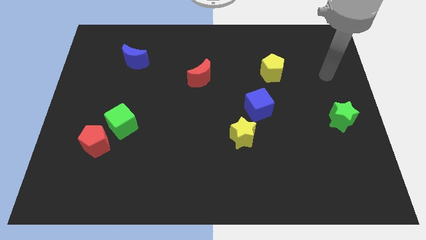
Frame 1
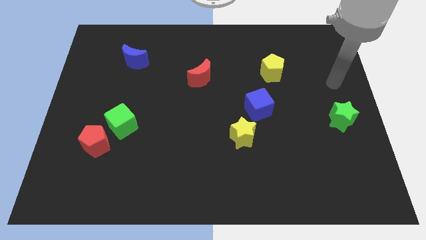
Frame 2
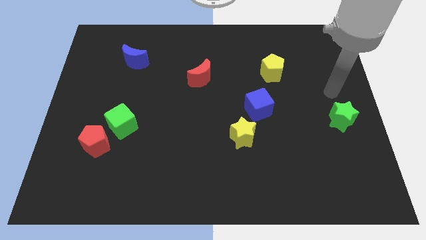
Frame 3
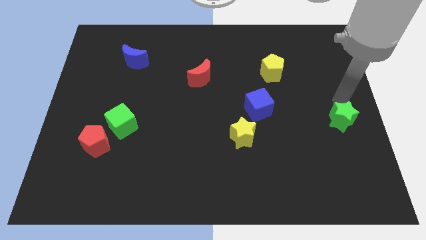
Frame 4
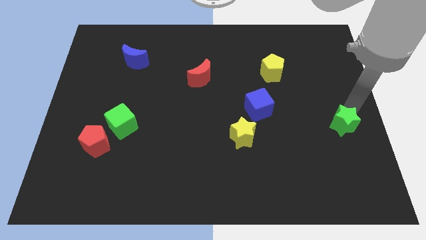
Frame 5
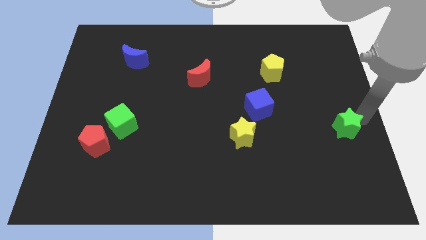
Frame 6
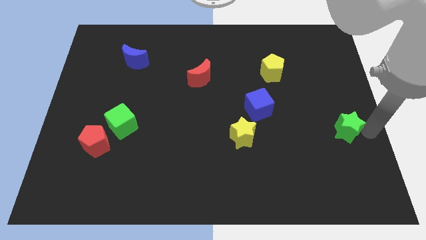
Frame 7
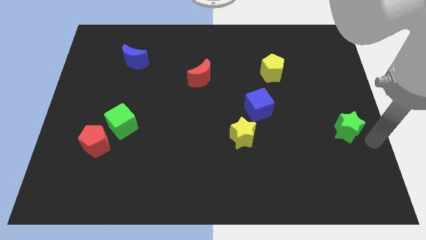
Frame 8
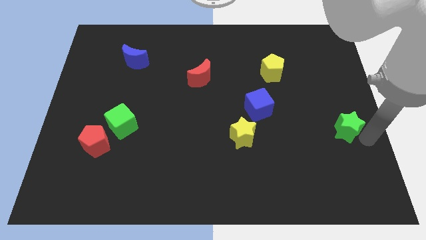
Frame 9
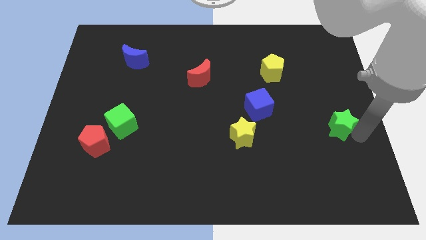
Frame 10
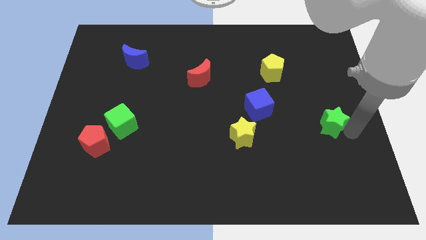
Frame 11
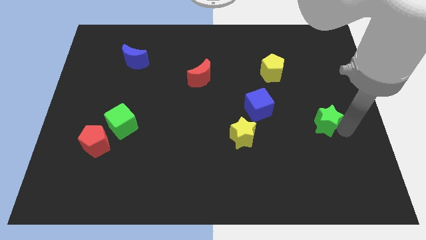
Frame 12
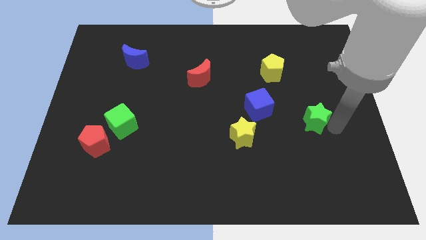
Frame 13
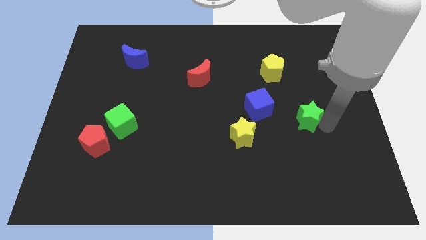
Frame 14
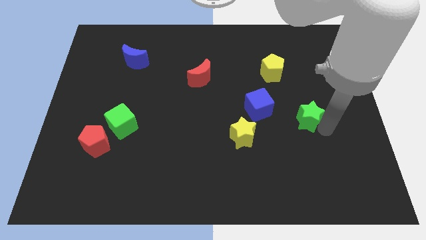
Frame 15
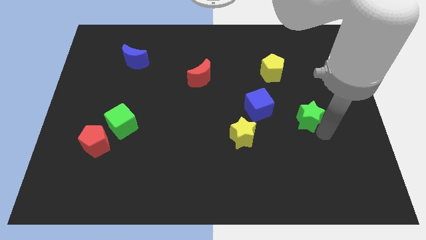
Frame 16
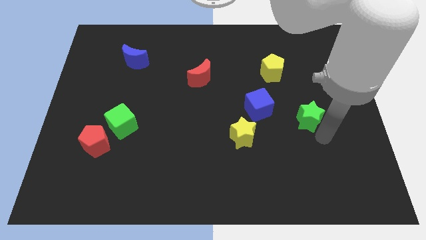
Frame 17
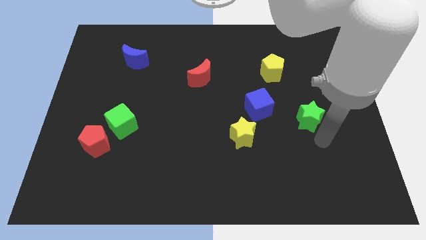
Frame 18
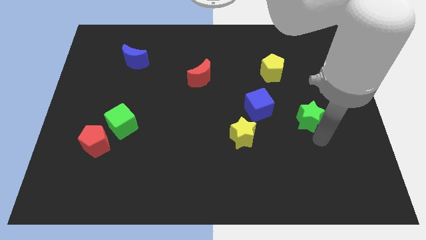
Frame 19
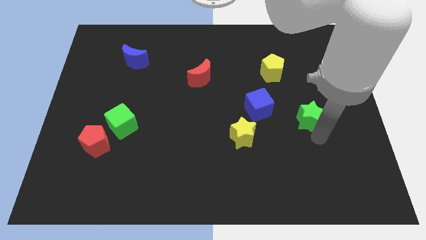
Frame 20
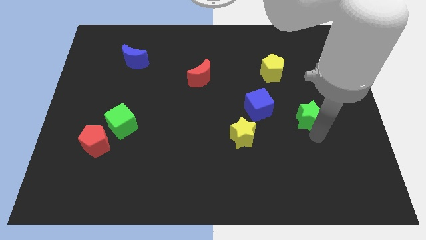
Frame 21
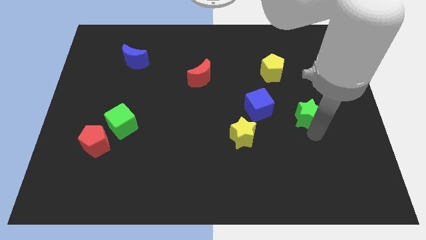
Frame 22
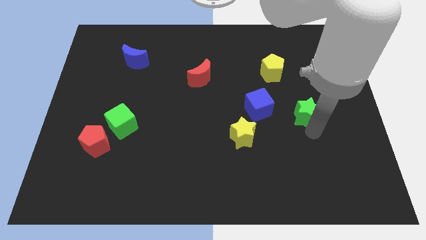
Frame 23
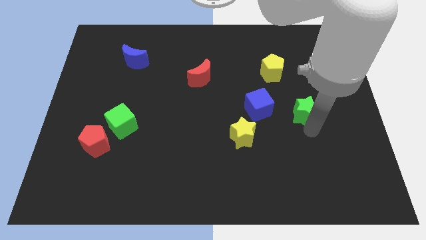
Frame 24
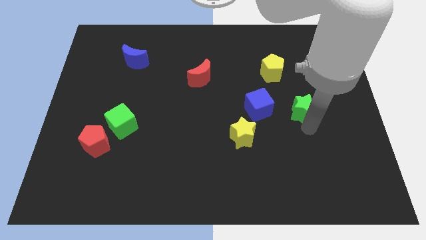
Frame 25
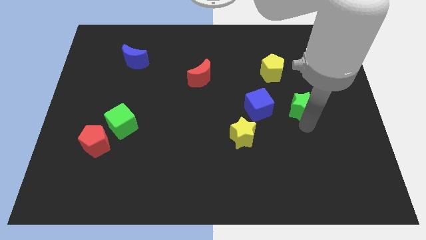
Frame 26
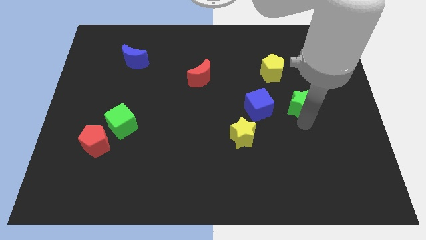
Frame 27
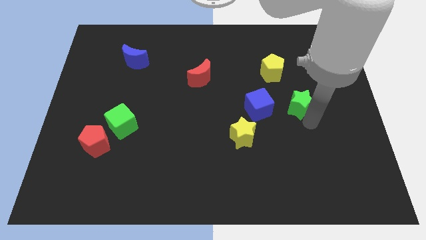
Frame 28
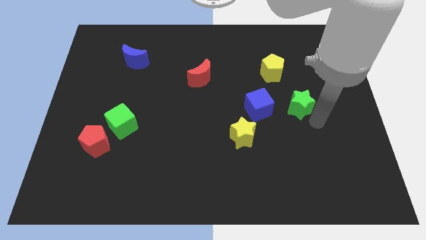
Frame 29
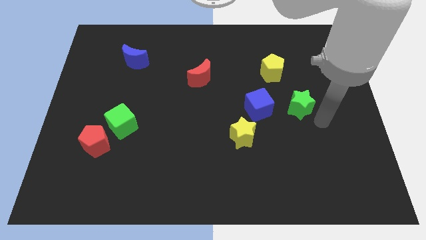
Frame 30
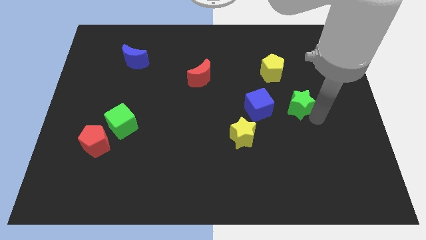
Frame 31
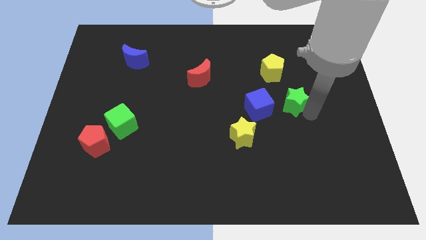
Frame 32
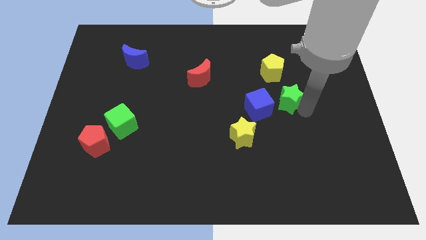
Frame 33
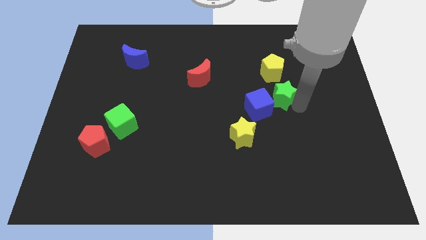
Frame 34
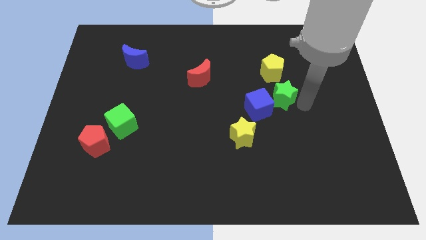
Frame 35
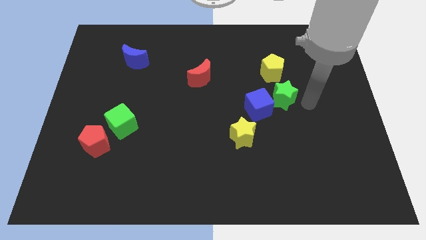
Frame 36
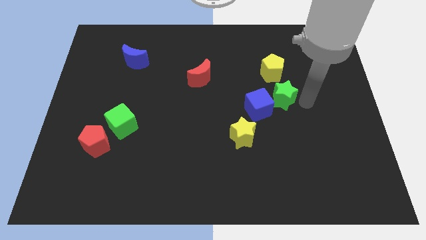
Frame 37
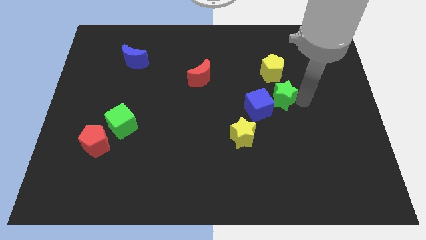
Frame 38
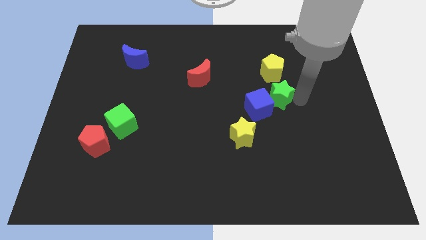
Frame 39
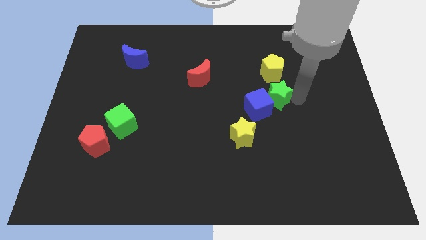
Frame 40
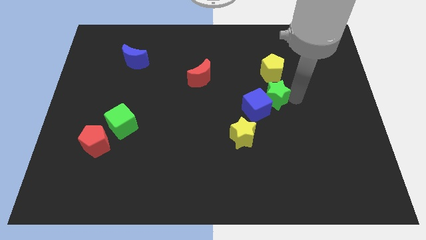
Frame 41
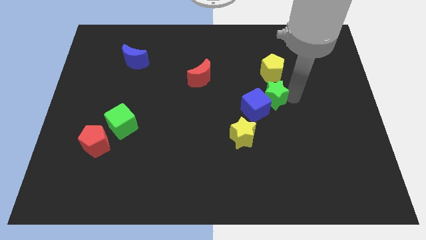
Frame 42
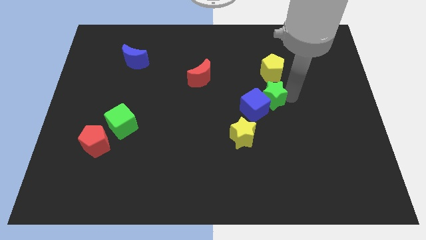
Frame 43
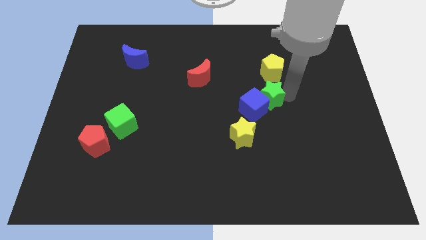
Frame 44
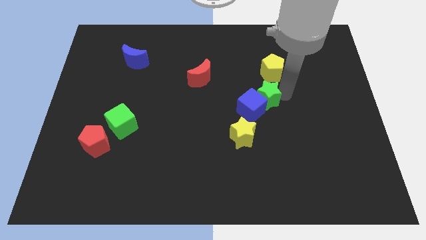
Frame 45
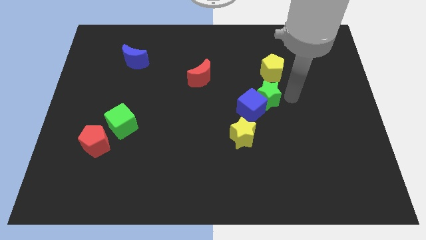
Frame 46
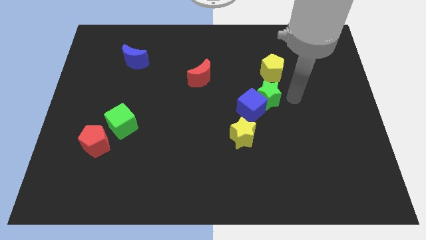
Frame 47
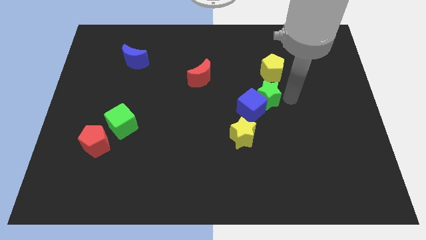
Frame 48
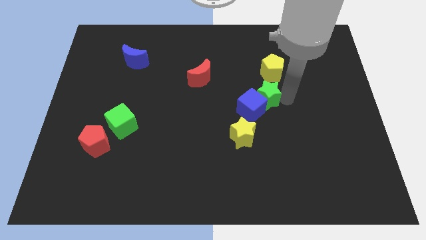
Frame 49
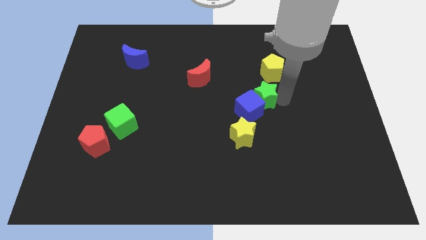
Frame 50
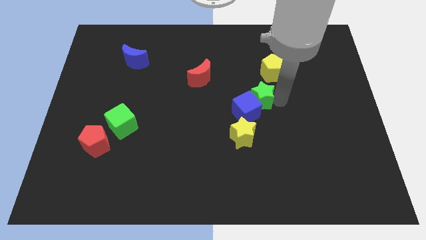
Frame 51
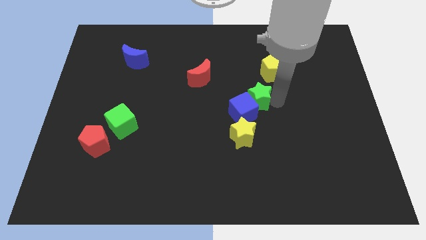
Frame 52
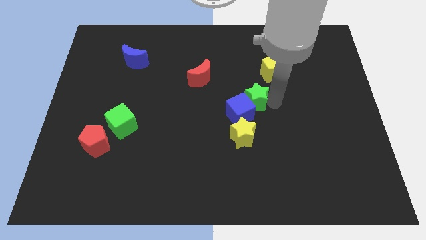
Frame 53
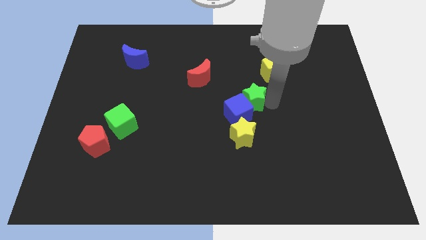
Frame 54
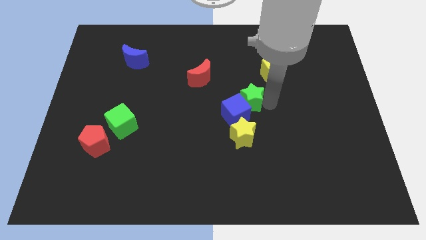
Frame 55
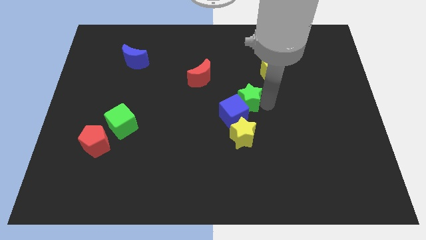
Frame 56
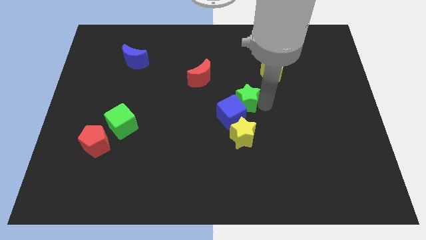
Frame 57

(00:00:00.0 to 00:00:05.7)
move the green star left

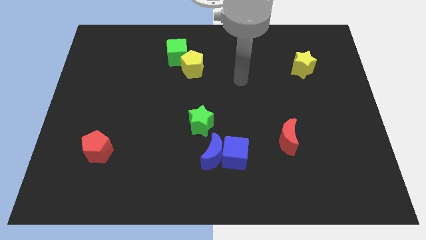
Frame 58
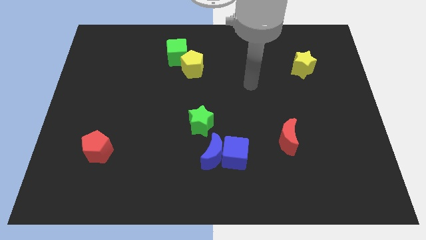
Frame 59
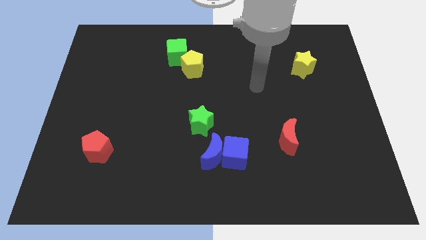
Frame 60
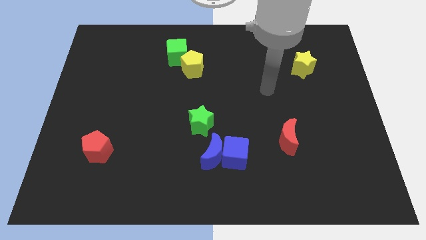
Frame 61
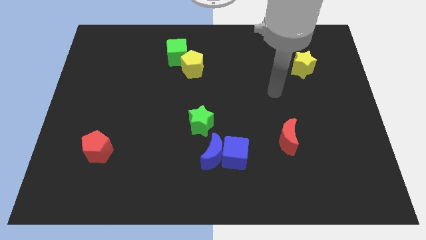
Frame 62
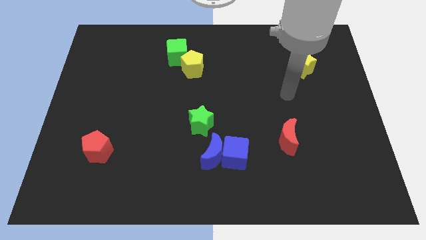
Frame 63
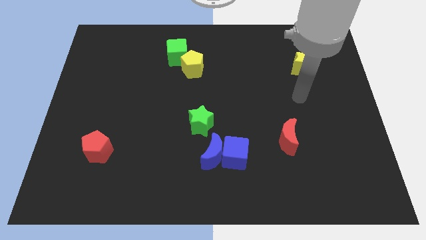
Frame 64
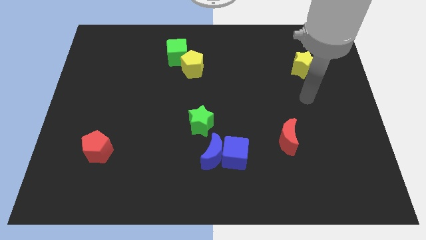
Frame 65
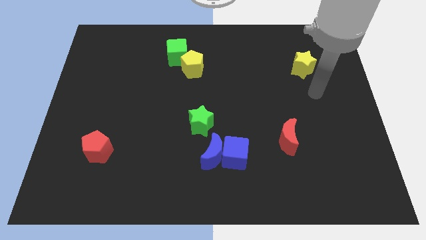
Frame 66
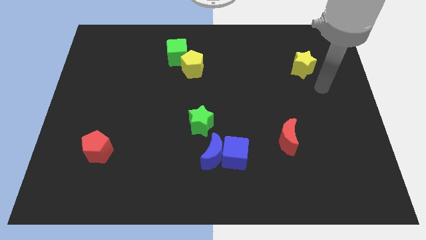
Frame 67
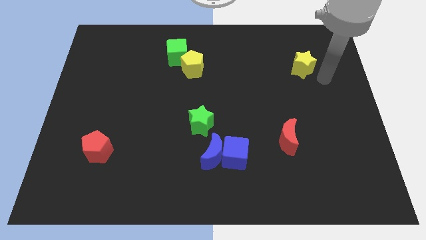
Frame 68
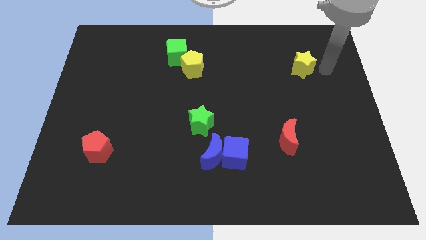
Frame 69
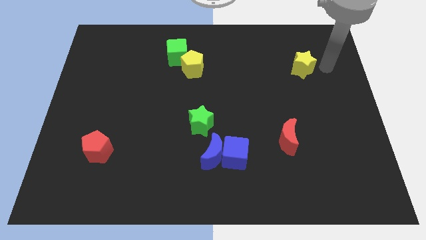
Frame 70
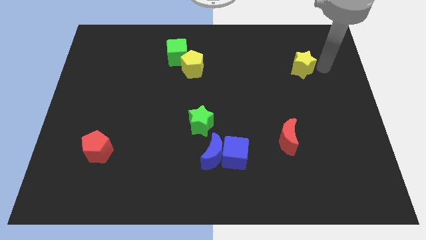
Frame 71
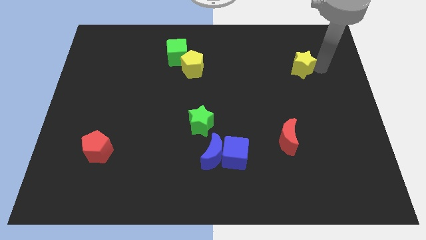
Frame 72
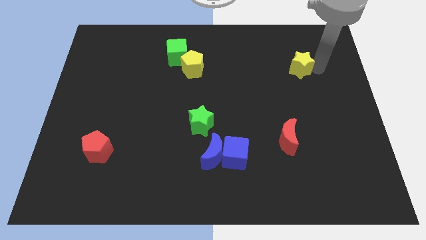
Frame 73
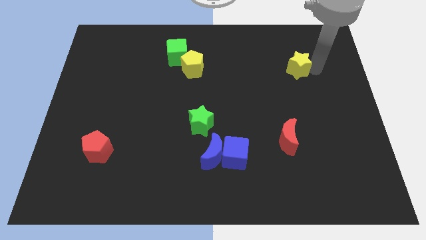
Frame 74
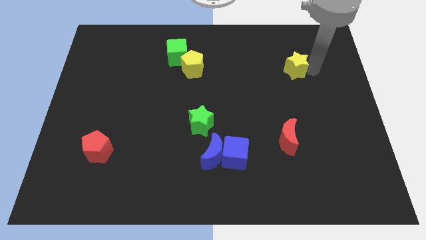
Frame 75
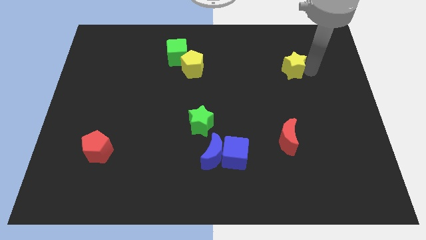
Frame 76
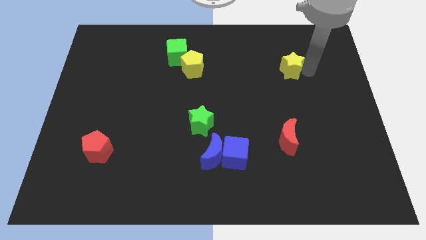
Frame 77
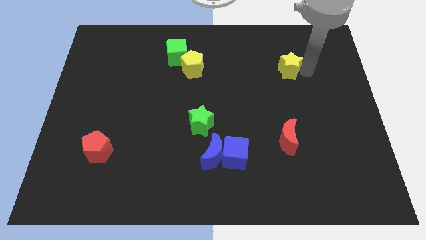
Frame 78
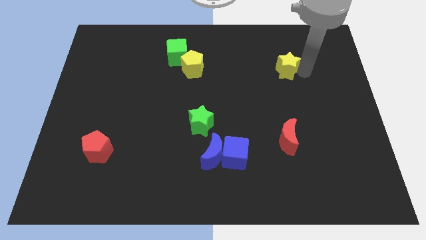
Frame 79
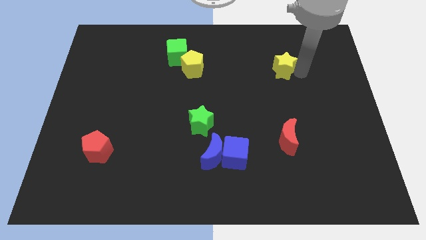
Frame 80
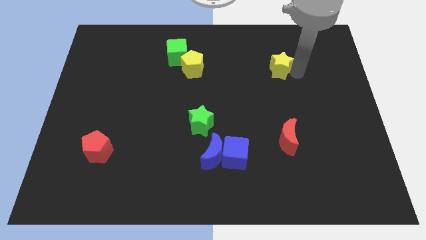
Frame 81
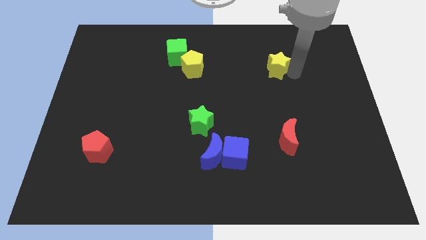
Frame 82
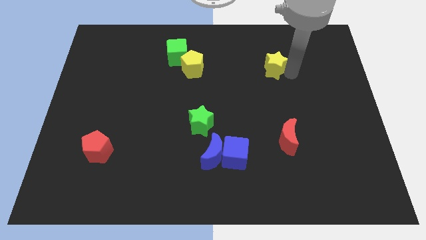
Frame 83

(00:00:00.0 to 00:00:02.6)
slightly slide the yellow star left
